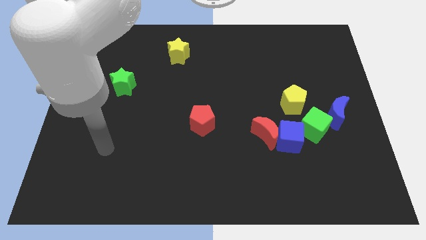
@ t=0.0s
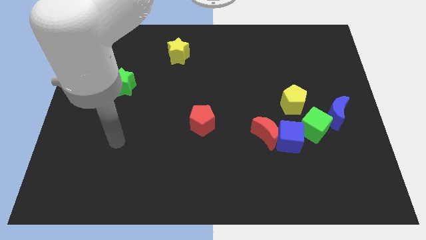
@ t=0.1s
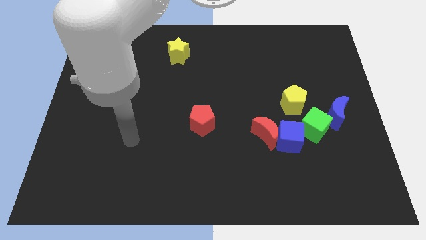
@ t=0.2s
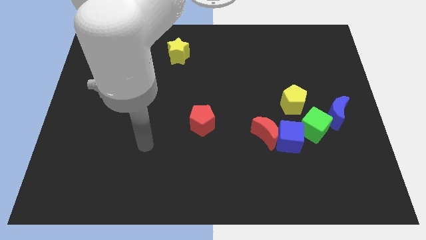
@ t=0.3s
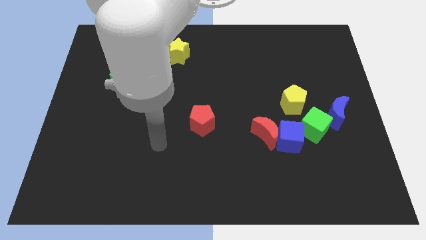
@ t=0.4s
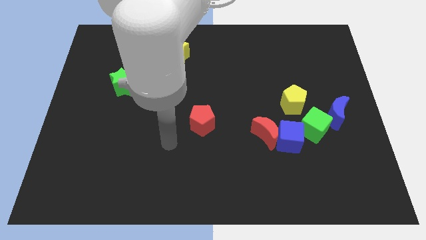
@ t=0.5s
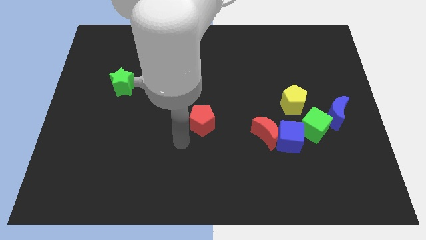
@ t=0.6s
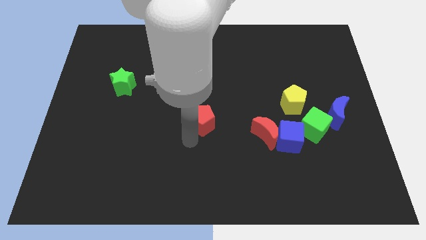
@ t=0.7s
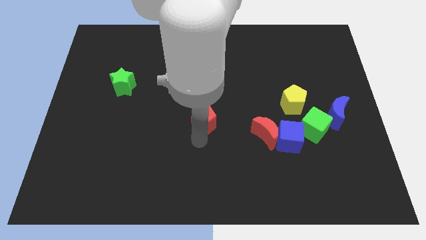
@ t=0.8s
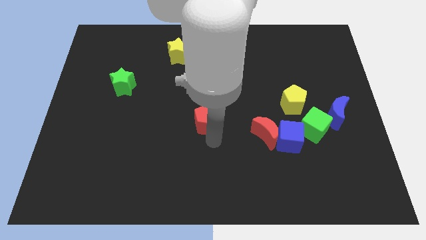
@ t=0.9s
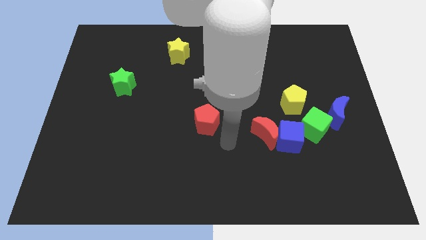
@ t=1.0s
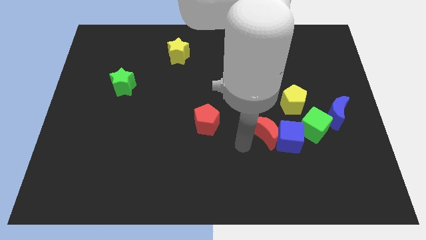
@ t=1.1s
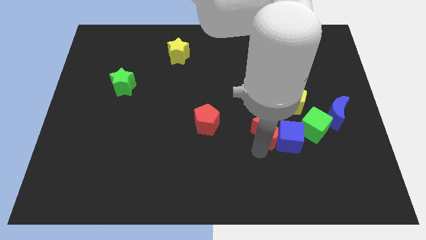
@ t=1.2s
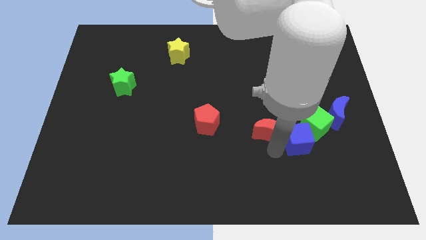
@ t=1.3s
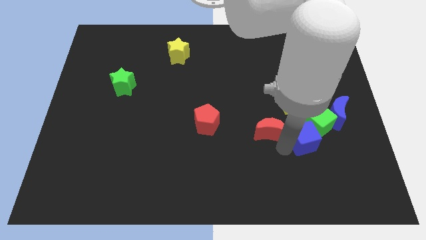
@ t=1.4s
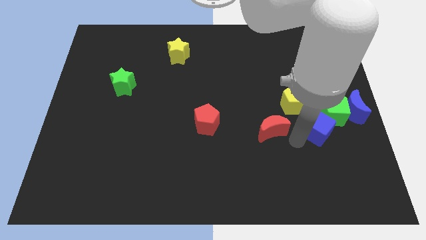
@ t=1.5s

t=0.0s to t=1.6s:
move the red moon away from the blue cube

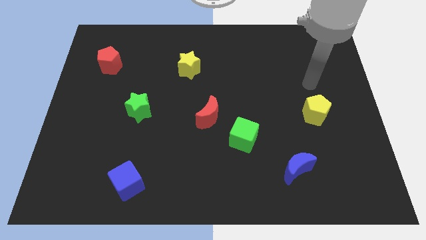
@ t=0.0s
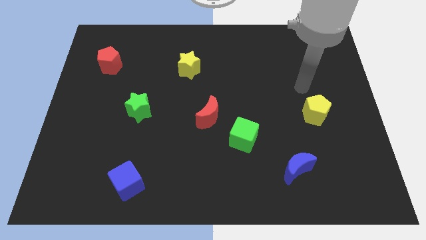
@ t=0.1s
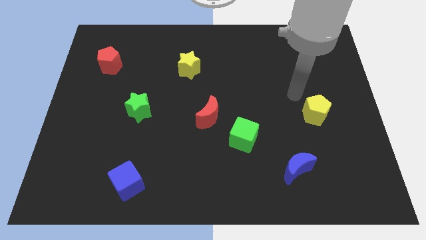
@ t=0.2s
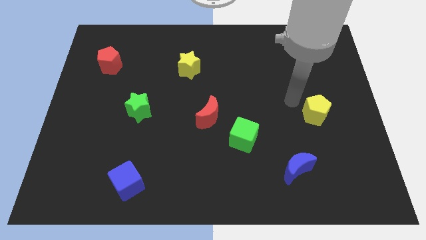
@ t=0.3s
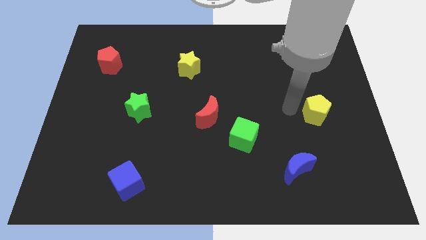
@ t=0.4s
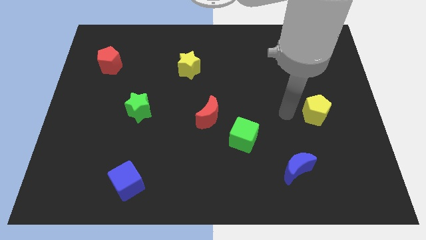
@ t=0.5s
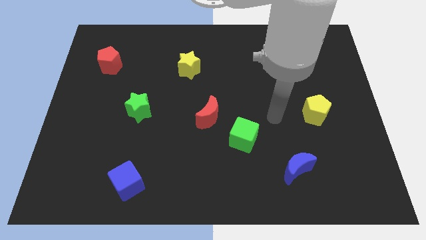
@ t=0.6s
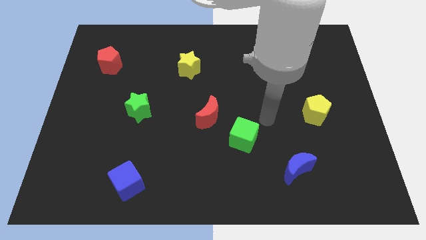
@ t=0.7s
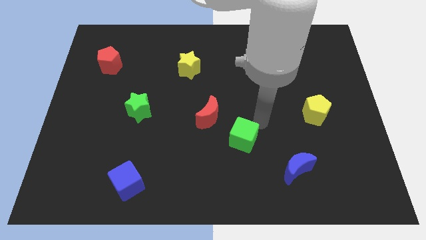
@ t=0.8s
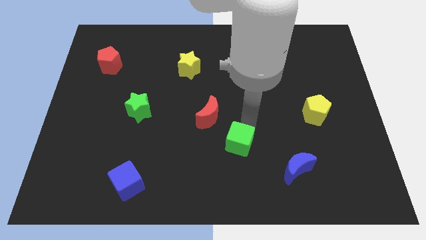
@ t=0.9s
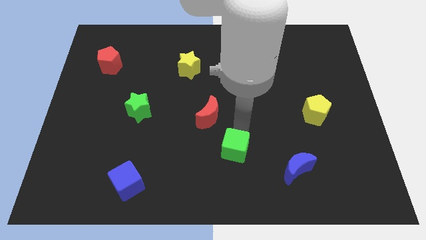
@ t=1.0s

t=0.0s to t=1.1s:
pull the red moon apart from the green cube

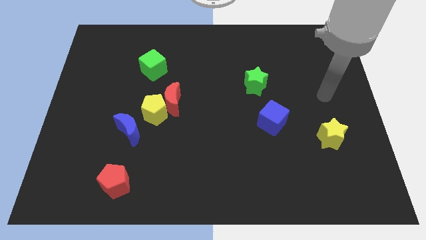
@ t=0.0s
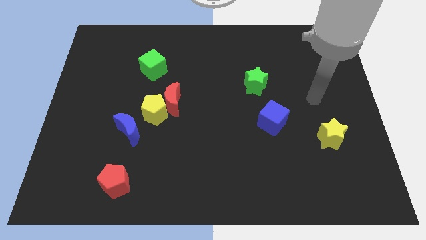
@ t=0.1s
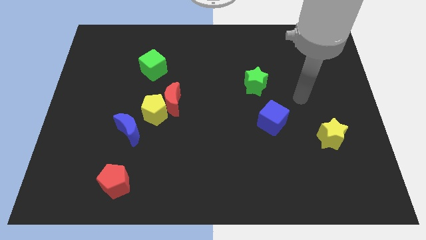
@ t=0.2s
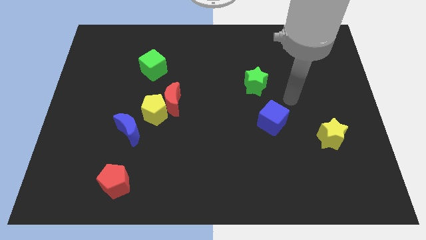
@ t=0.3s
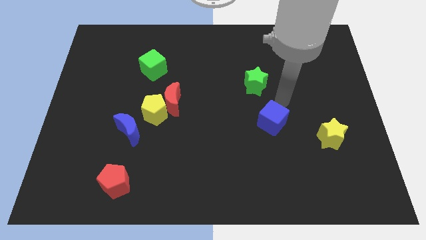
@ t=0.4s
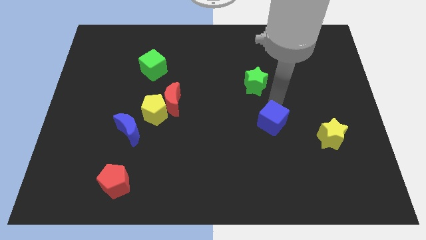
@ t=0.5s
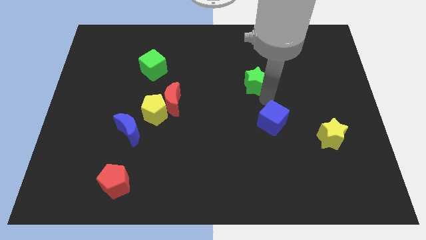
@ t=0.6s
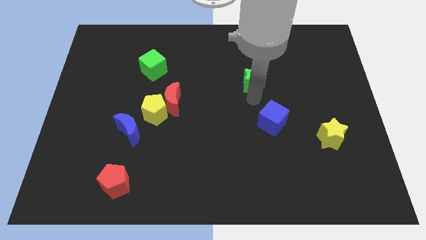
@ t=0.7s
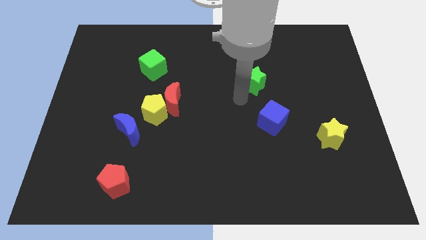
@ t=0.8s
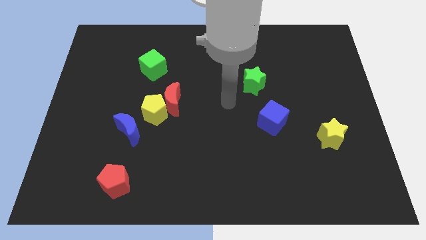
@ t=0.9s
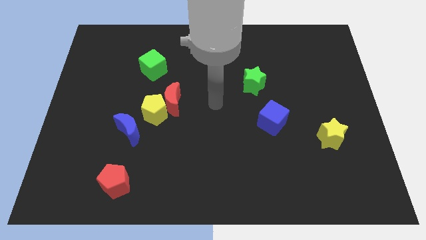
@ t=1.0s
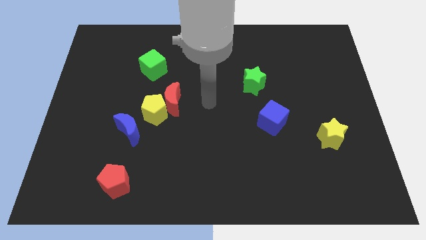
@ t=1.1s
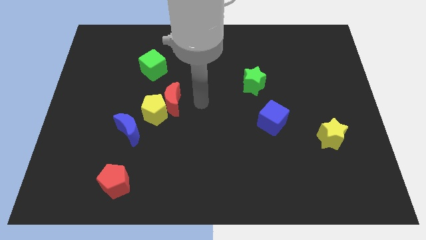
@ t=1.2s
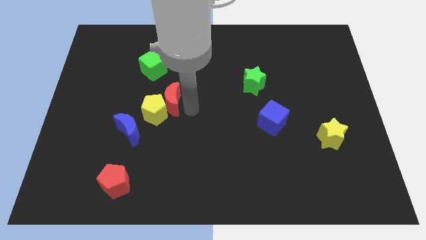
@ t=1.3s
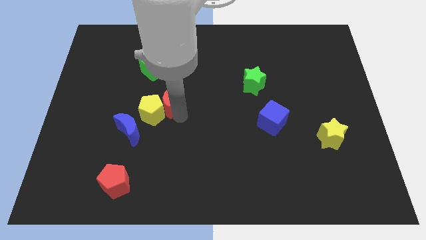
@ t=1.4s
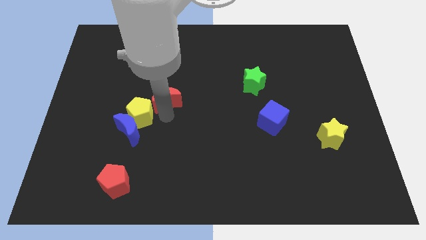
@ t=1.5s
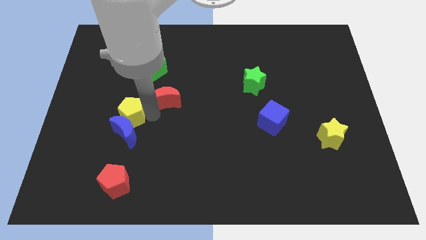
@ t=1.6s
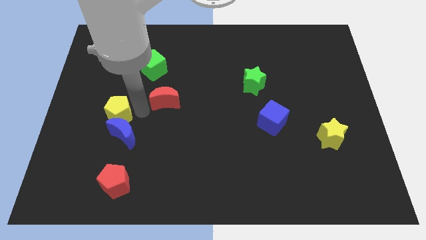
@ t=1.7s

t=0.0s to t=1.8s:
move the red moon away from the yellow pentagon

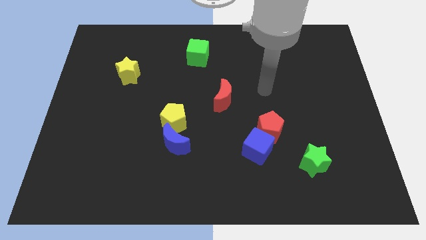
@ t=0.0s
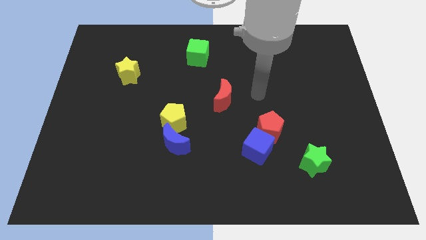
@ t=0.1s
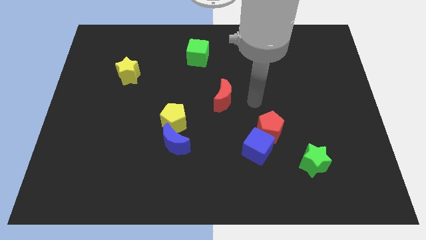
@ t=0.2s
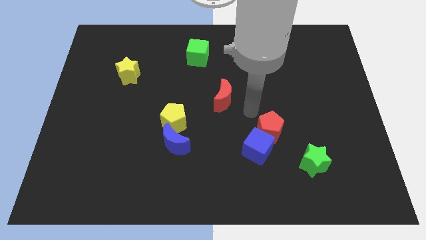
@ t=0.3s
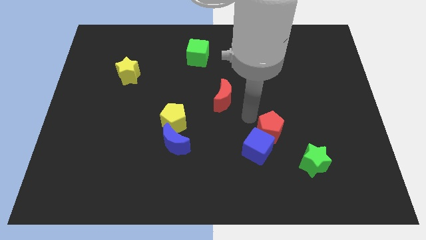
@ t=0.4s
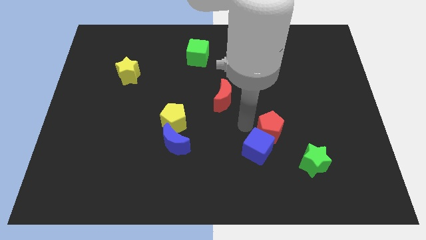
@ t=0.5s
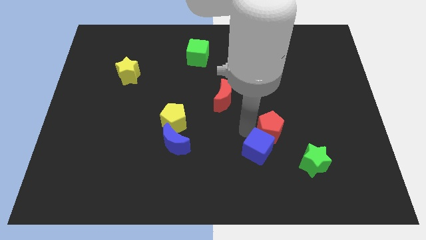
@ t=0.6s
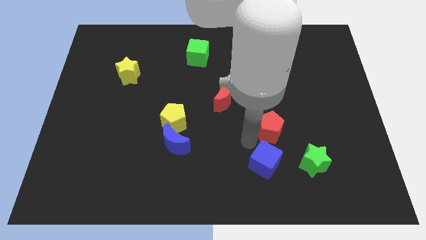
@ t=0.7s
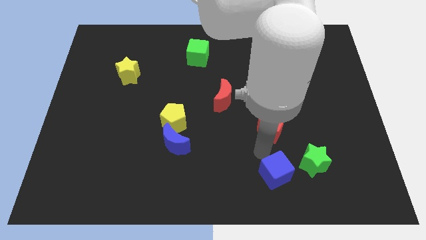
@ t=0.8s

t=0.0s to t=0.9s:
move the red pentagon away from the blue cube

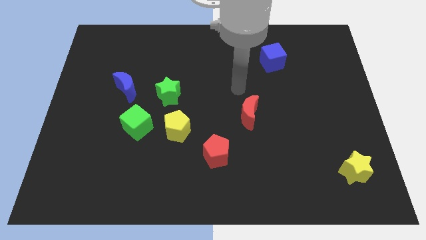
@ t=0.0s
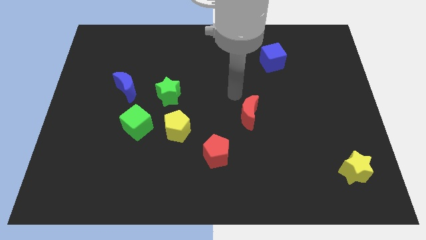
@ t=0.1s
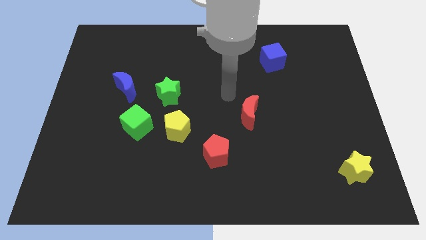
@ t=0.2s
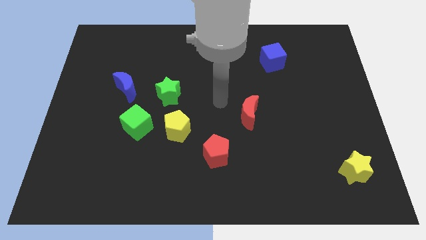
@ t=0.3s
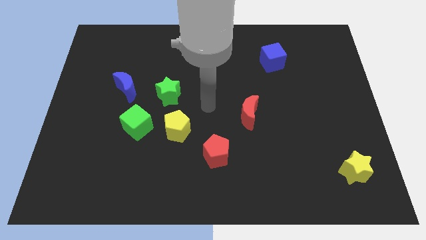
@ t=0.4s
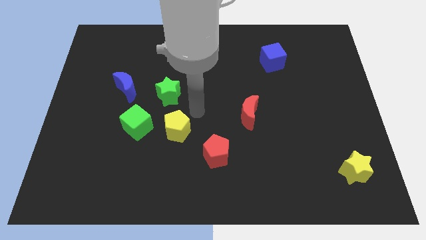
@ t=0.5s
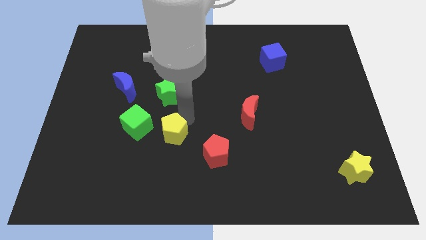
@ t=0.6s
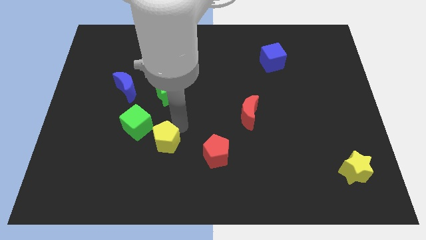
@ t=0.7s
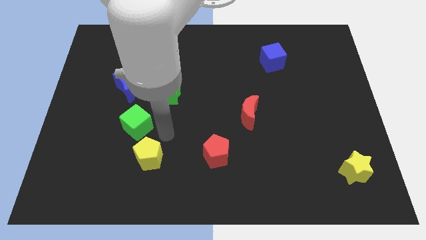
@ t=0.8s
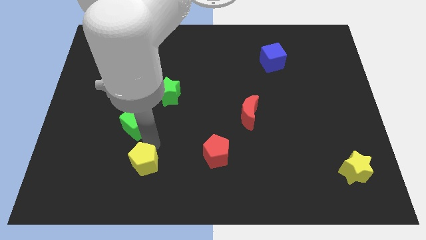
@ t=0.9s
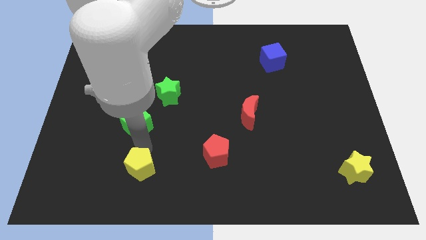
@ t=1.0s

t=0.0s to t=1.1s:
pull the green cube apart from the yellow pentagon

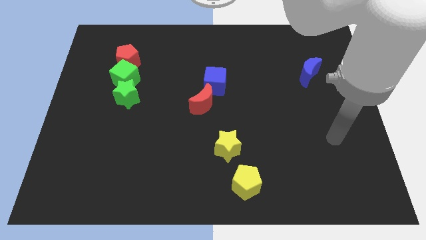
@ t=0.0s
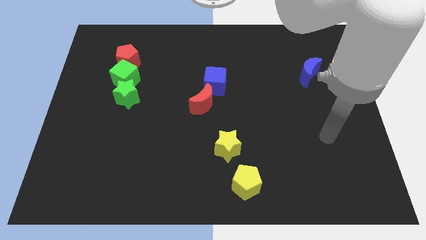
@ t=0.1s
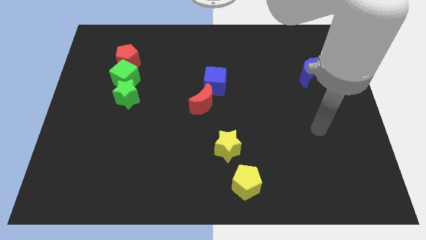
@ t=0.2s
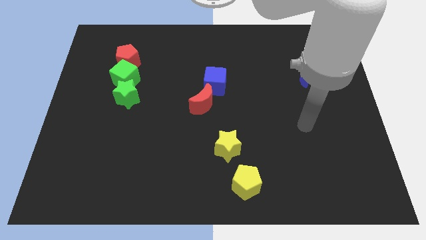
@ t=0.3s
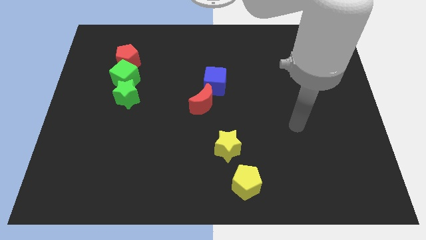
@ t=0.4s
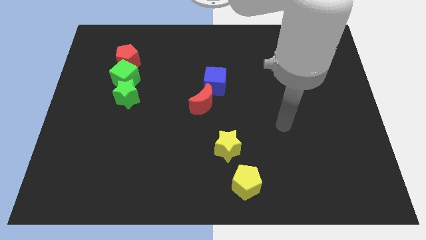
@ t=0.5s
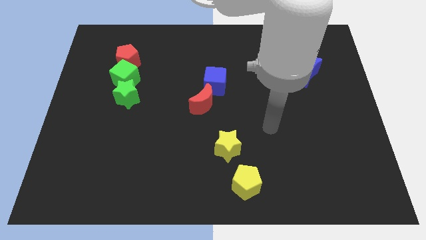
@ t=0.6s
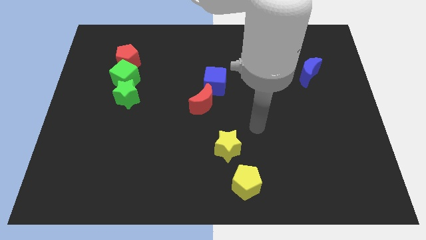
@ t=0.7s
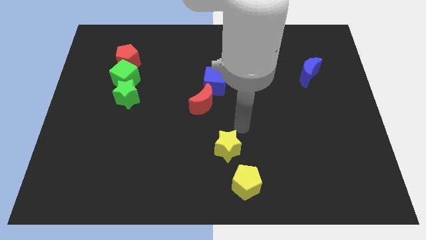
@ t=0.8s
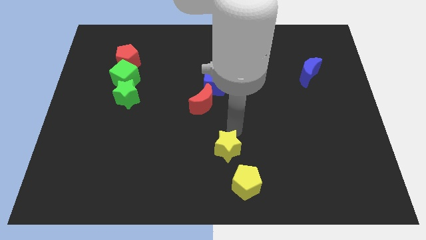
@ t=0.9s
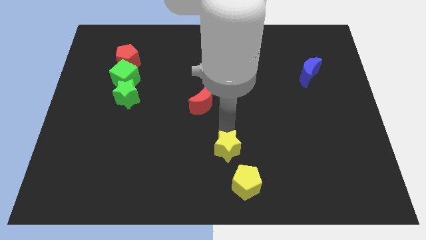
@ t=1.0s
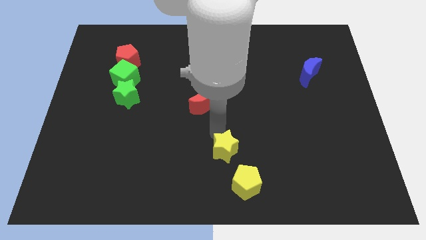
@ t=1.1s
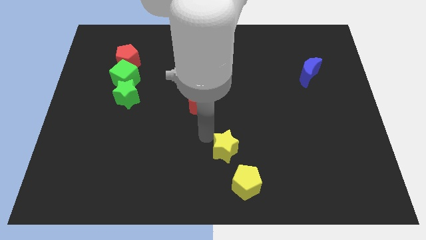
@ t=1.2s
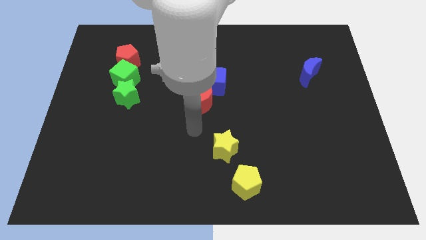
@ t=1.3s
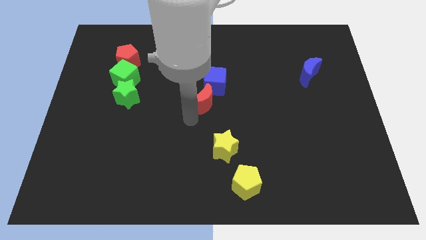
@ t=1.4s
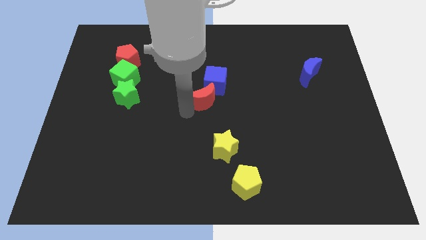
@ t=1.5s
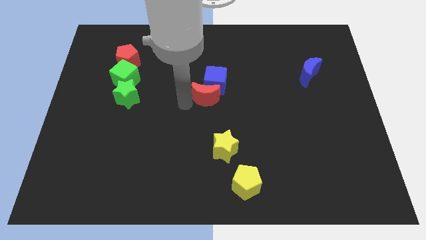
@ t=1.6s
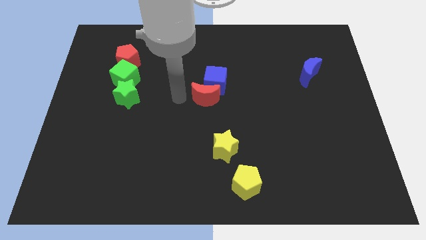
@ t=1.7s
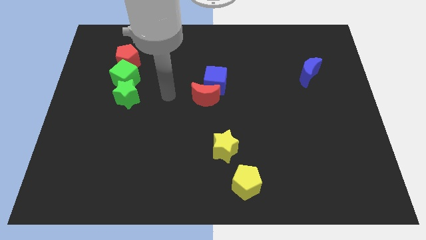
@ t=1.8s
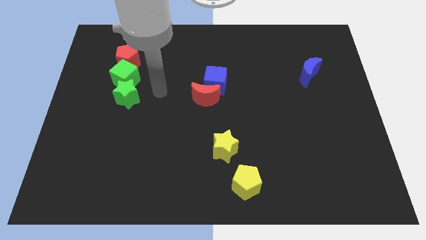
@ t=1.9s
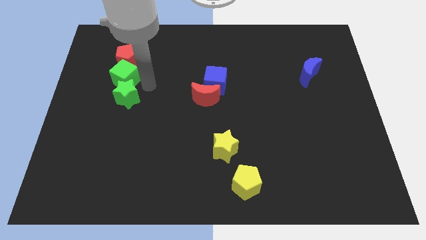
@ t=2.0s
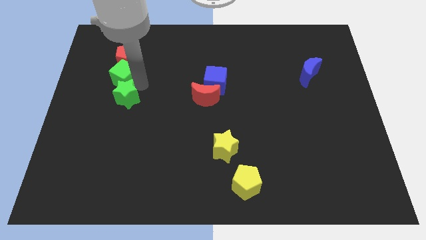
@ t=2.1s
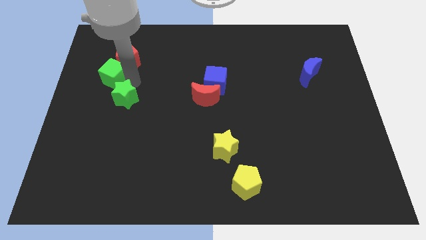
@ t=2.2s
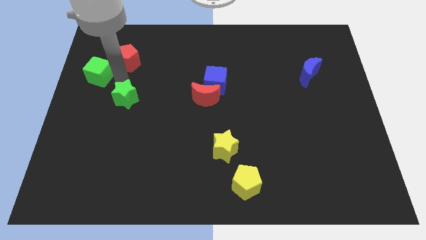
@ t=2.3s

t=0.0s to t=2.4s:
move the green star away from the green cube

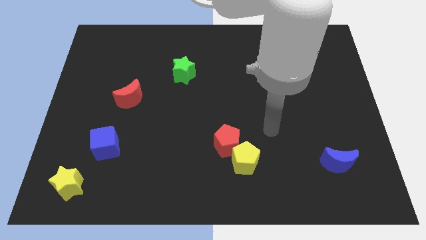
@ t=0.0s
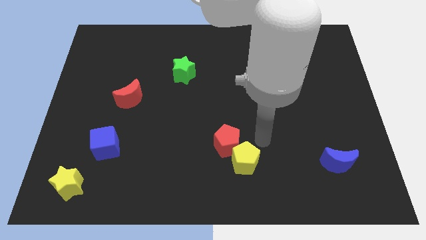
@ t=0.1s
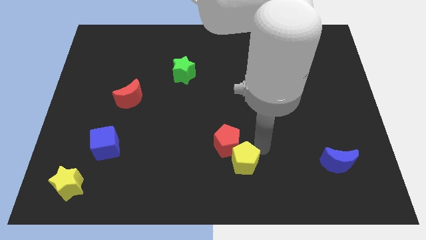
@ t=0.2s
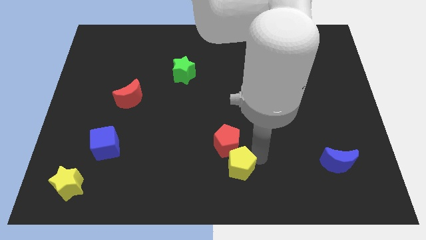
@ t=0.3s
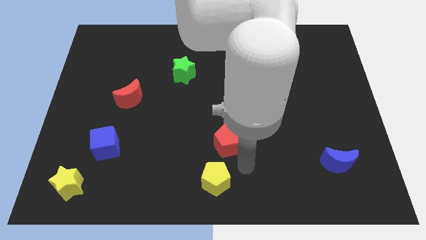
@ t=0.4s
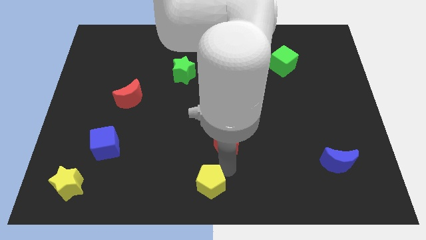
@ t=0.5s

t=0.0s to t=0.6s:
pull the red pentagon apart from the yellow pentagon
